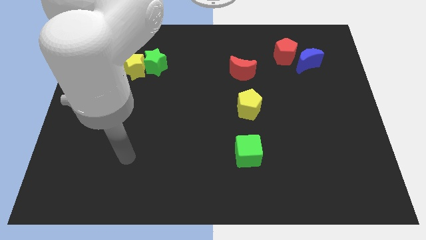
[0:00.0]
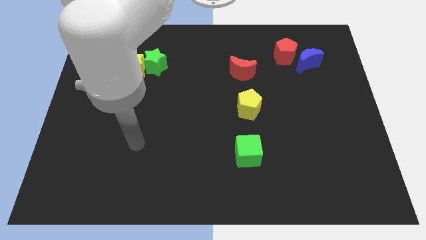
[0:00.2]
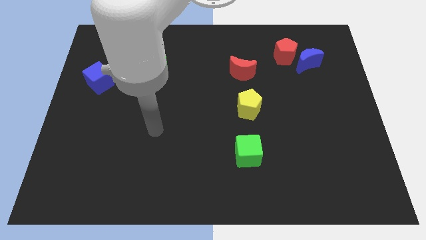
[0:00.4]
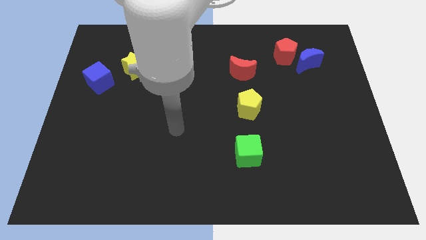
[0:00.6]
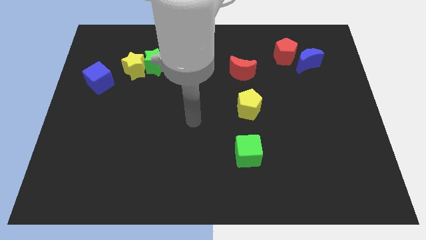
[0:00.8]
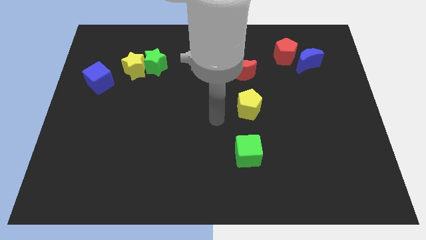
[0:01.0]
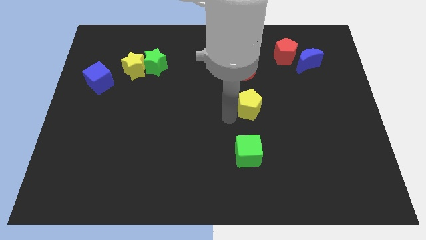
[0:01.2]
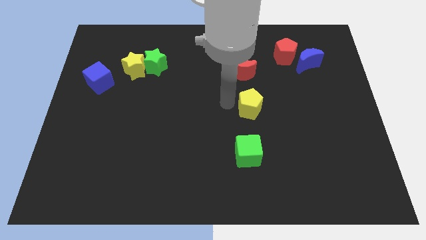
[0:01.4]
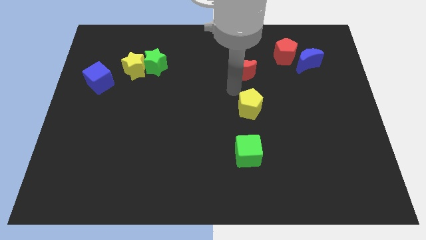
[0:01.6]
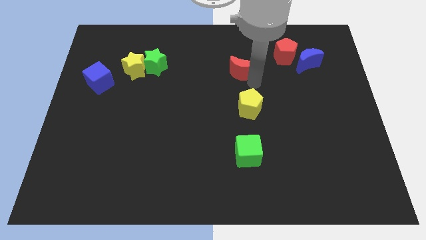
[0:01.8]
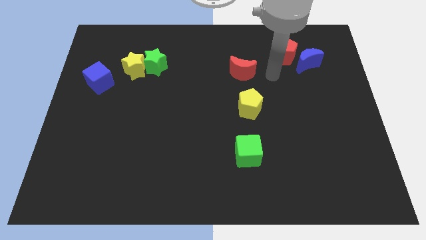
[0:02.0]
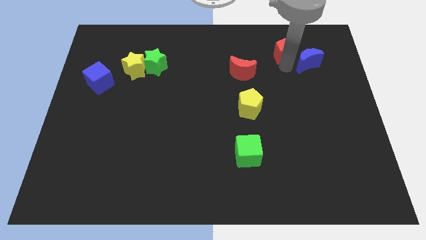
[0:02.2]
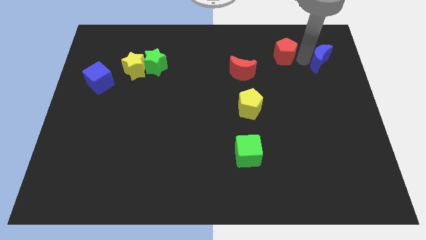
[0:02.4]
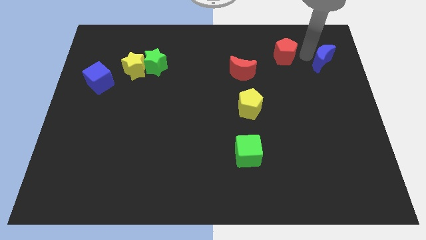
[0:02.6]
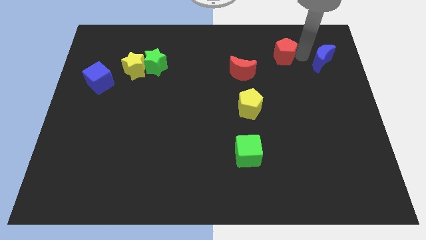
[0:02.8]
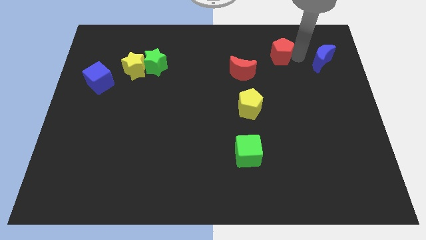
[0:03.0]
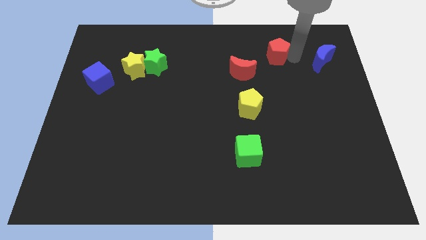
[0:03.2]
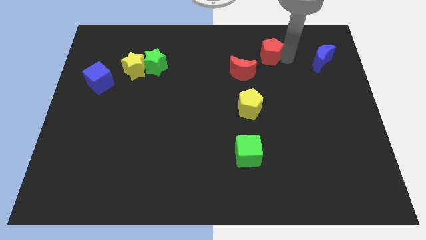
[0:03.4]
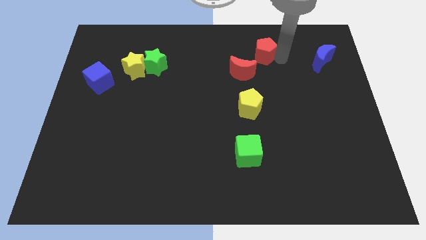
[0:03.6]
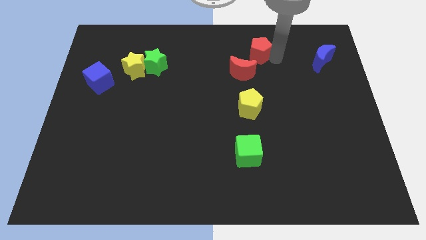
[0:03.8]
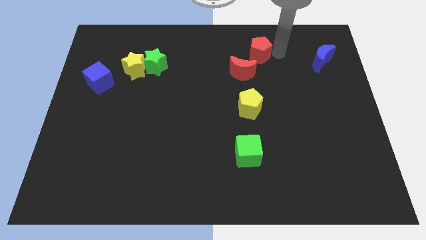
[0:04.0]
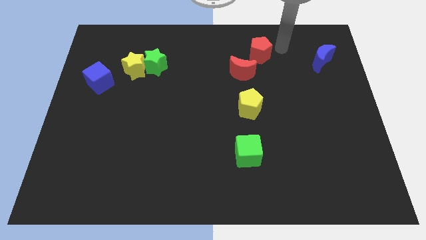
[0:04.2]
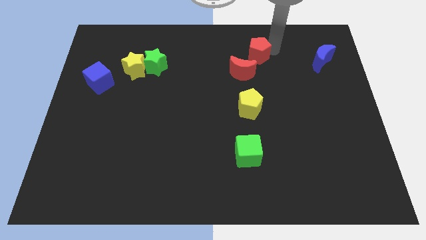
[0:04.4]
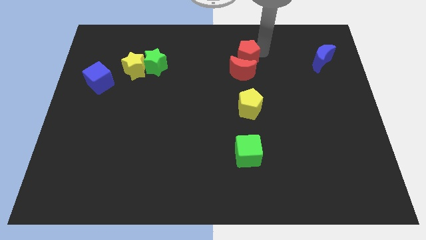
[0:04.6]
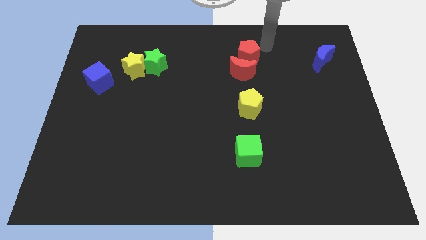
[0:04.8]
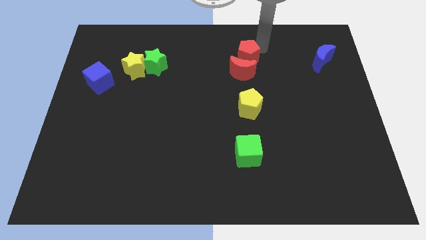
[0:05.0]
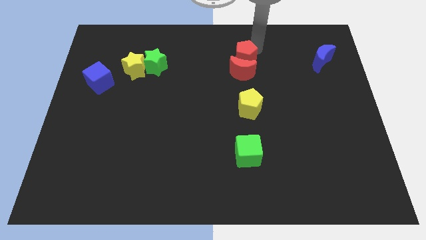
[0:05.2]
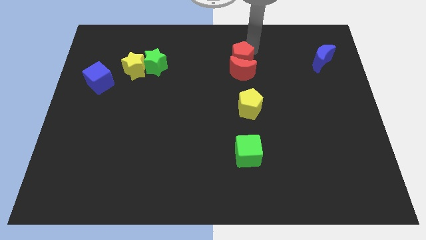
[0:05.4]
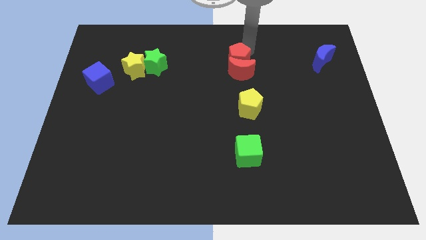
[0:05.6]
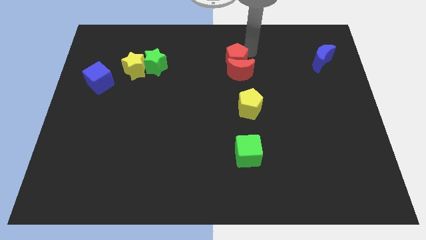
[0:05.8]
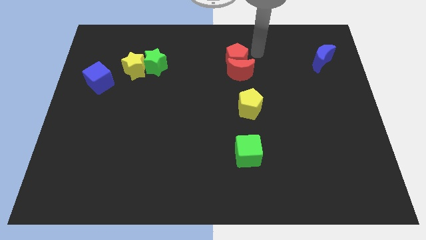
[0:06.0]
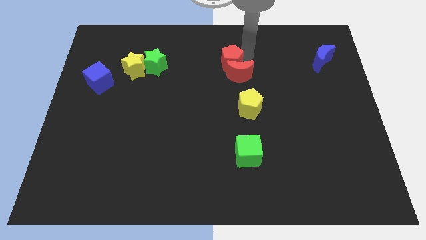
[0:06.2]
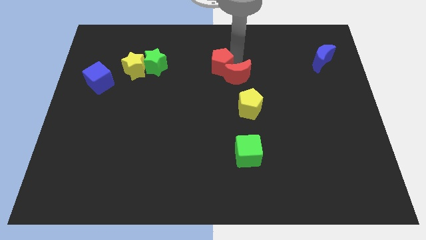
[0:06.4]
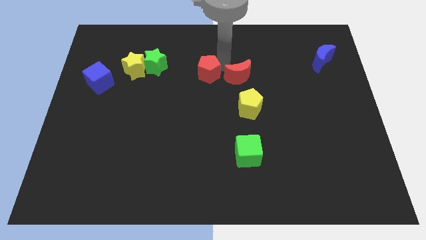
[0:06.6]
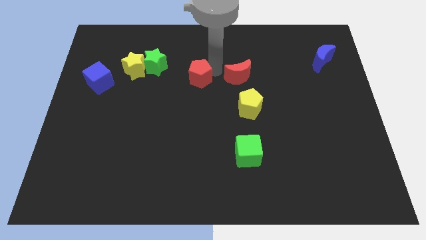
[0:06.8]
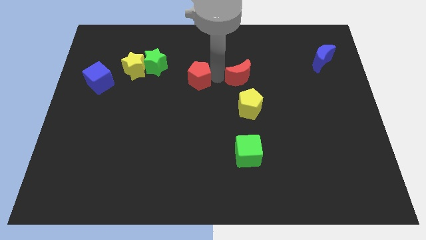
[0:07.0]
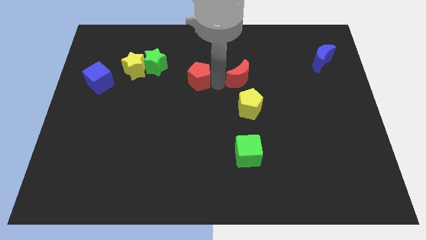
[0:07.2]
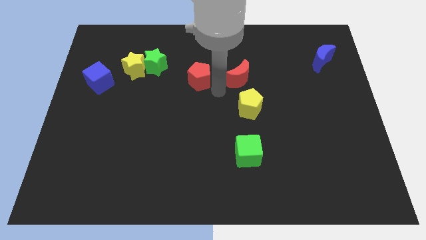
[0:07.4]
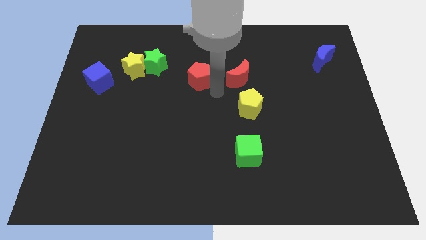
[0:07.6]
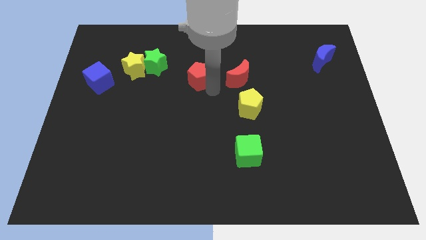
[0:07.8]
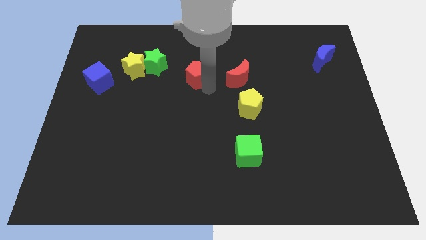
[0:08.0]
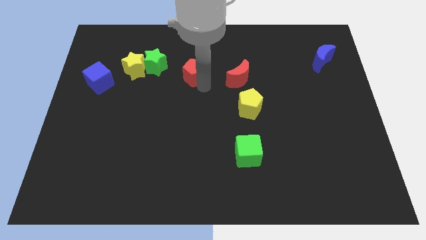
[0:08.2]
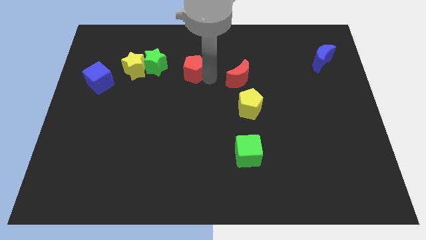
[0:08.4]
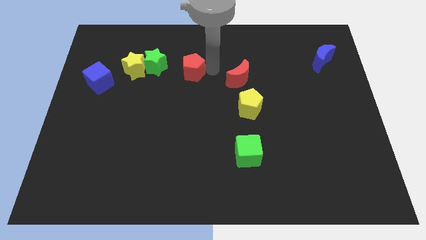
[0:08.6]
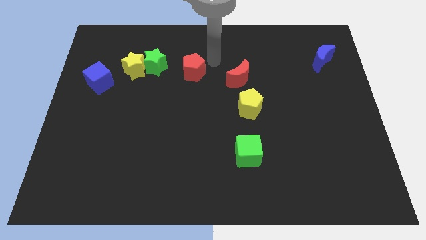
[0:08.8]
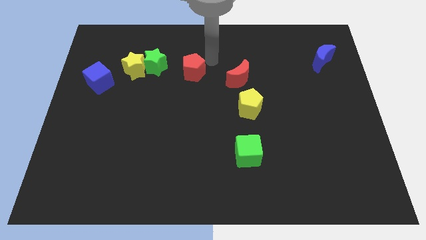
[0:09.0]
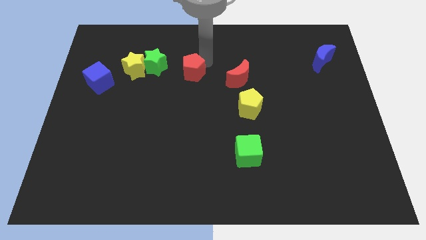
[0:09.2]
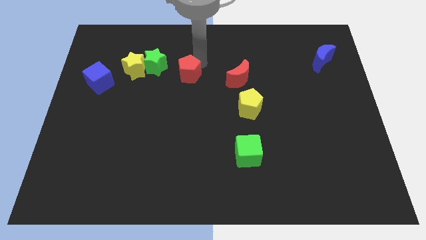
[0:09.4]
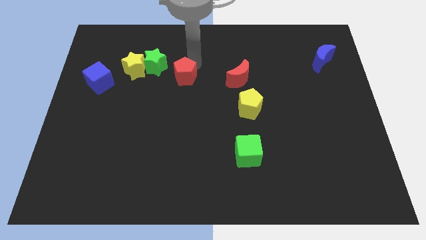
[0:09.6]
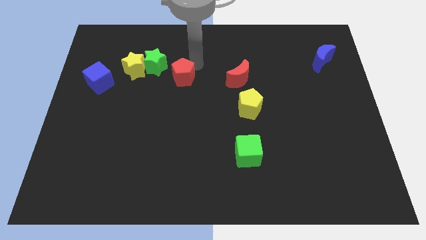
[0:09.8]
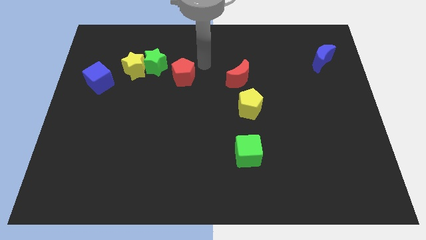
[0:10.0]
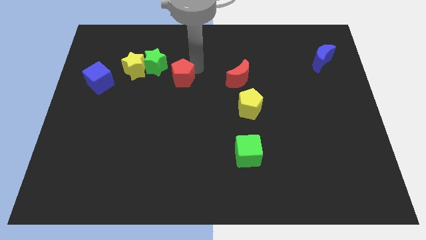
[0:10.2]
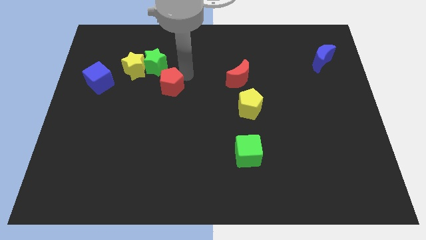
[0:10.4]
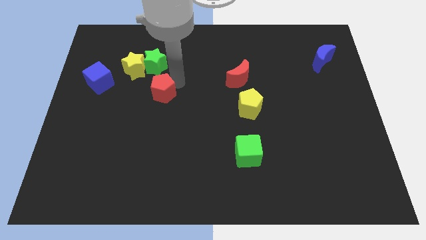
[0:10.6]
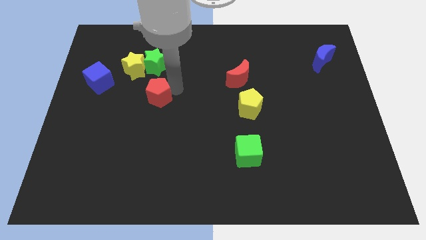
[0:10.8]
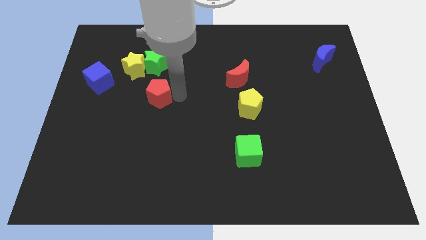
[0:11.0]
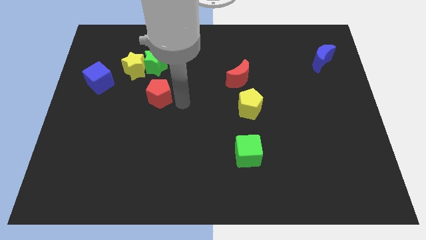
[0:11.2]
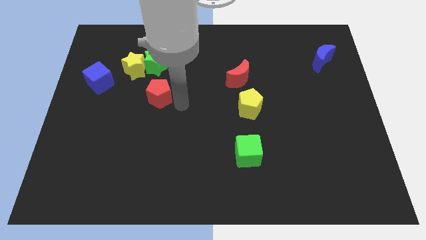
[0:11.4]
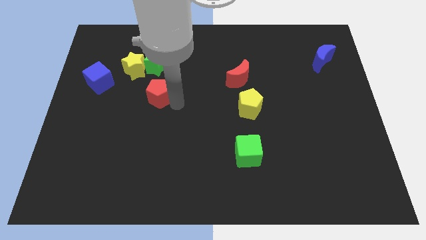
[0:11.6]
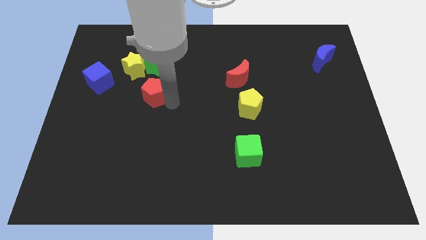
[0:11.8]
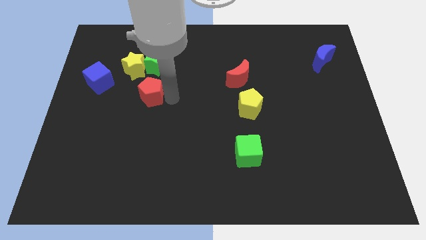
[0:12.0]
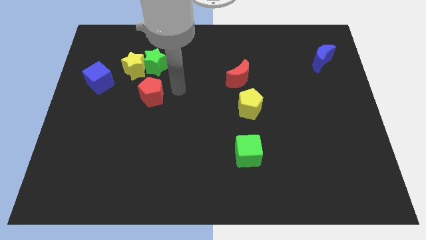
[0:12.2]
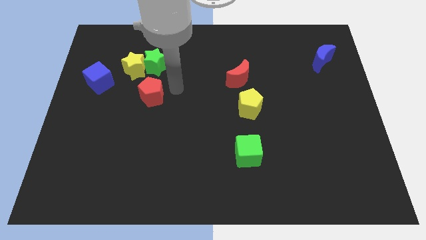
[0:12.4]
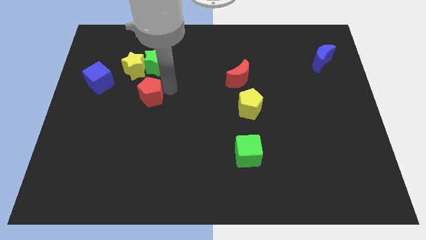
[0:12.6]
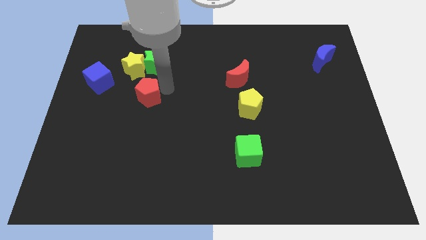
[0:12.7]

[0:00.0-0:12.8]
push the red pentagon to the bottom of the yellow star
